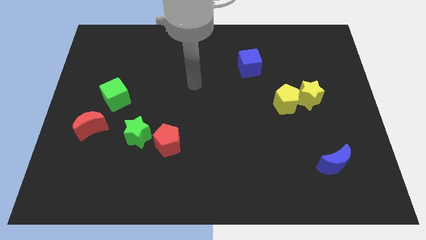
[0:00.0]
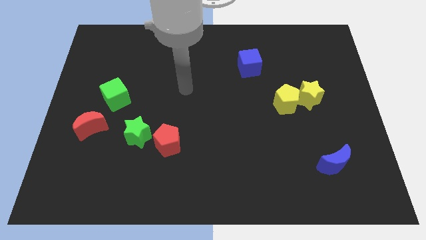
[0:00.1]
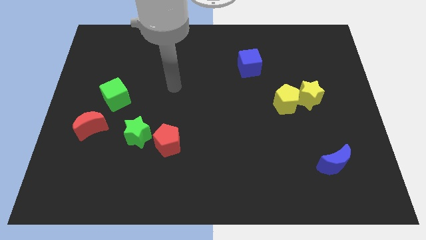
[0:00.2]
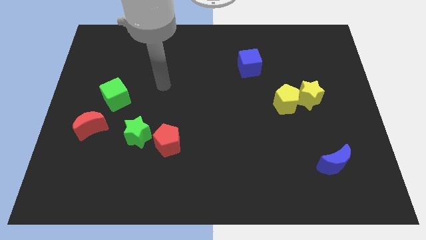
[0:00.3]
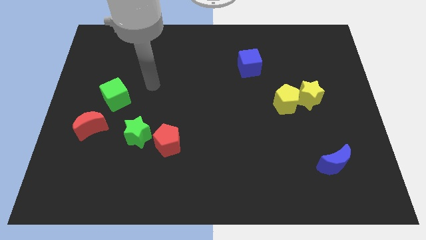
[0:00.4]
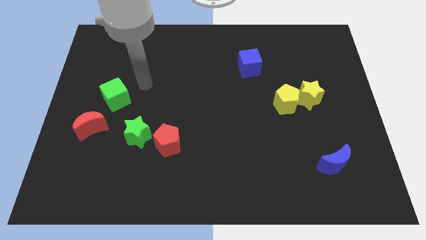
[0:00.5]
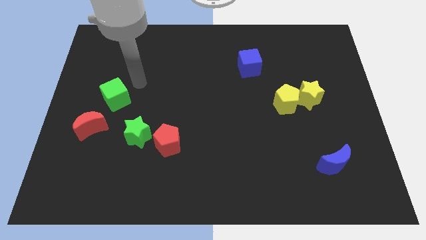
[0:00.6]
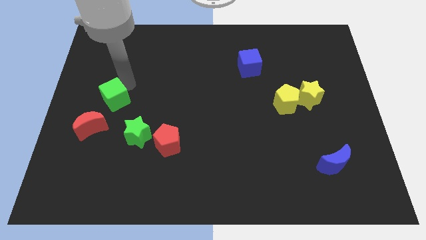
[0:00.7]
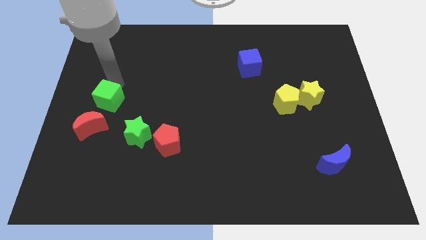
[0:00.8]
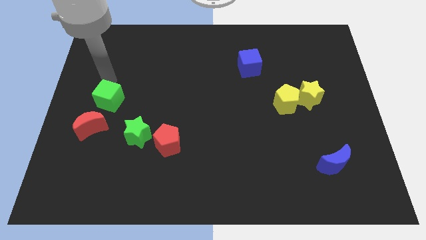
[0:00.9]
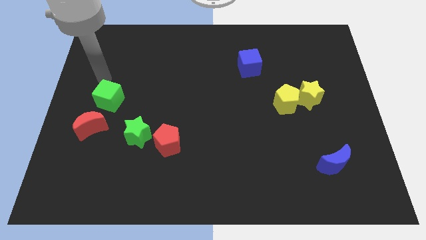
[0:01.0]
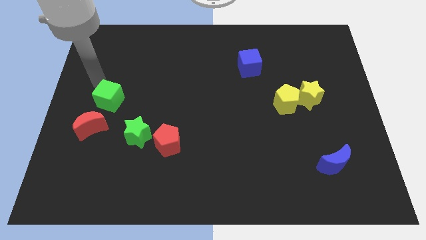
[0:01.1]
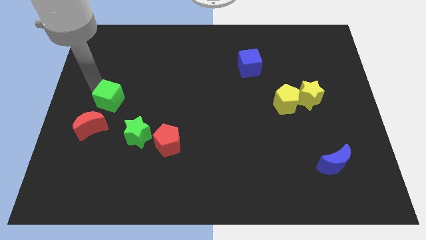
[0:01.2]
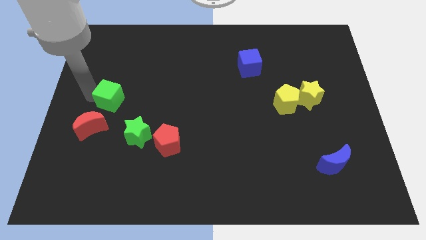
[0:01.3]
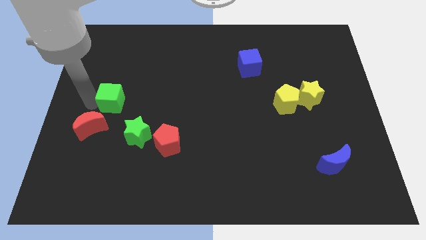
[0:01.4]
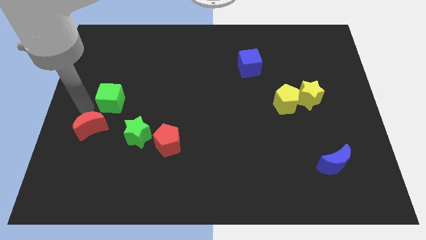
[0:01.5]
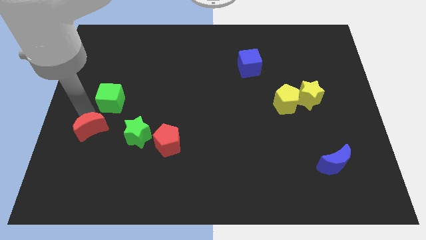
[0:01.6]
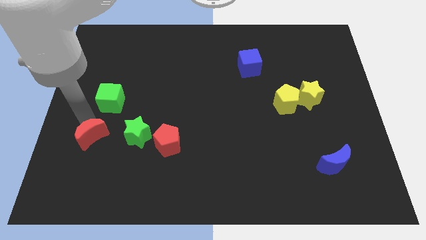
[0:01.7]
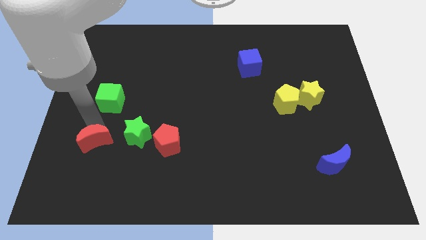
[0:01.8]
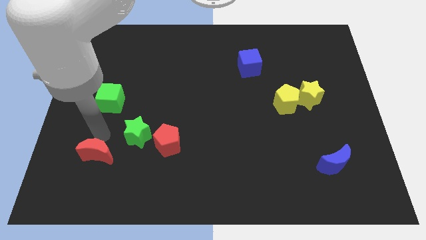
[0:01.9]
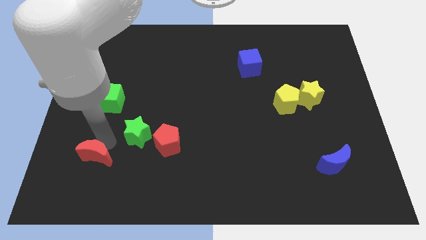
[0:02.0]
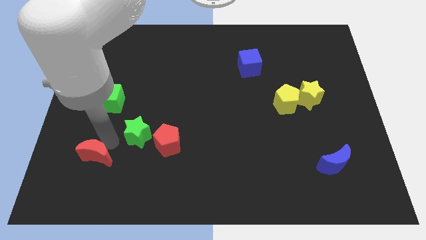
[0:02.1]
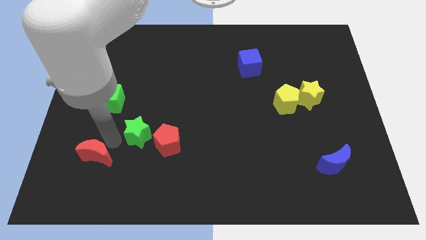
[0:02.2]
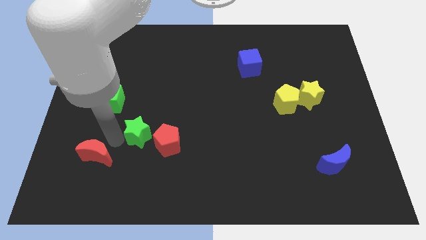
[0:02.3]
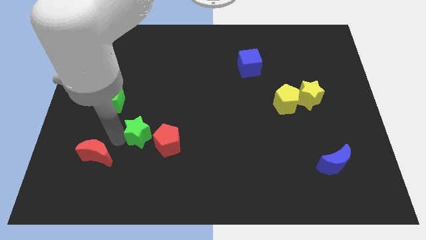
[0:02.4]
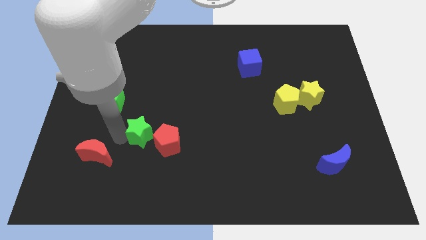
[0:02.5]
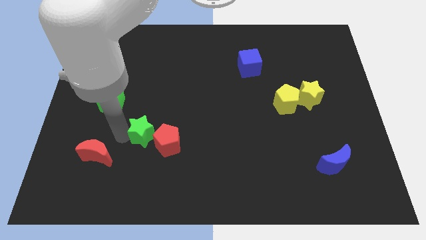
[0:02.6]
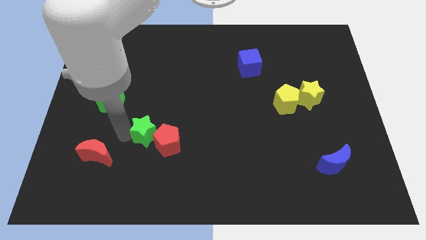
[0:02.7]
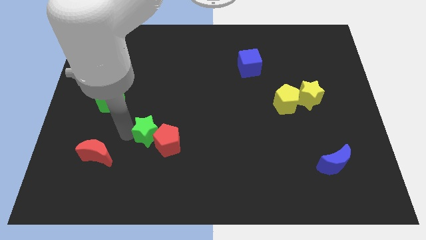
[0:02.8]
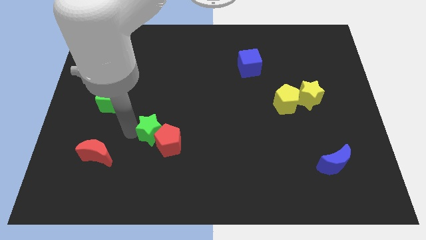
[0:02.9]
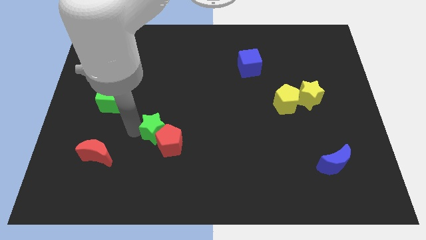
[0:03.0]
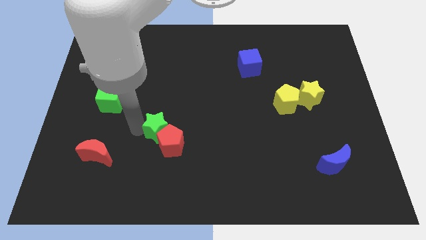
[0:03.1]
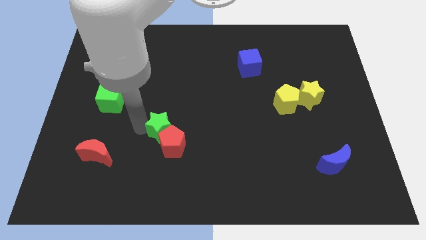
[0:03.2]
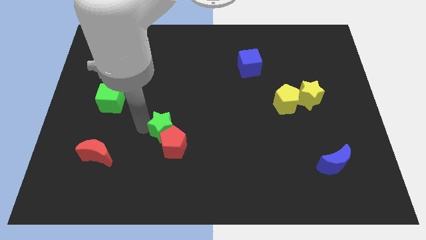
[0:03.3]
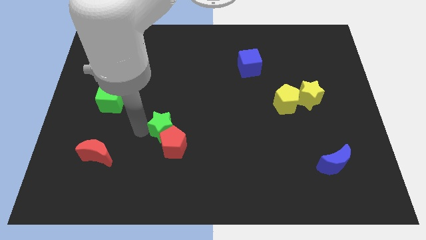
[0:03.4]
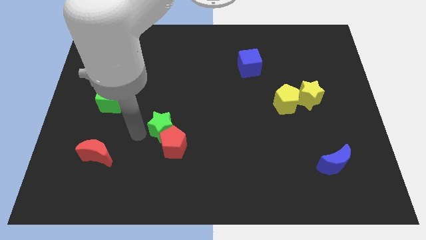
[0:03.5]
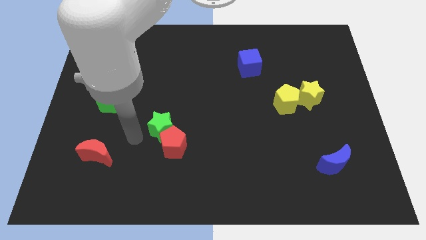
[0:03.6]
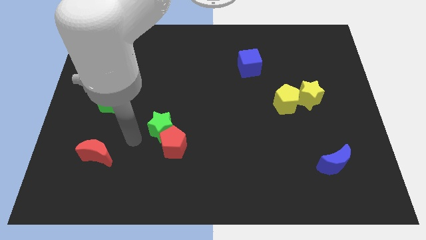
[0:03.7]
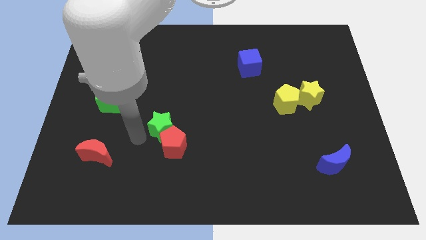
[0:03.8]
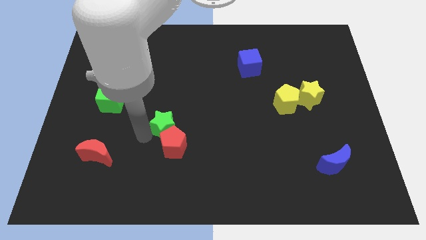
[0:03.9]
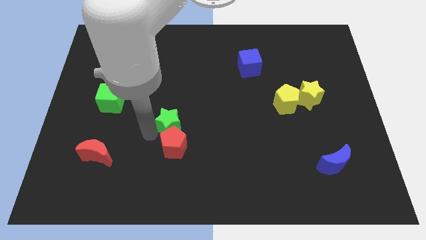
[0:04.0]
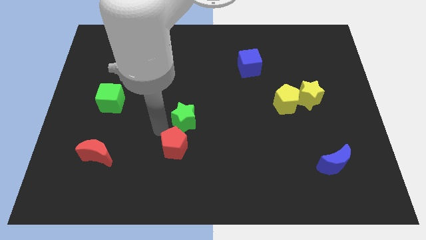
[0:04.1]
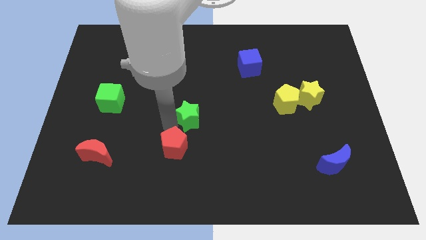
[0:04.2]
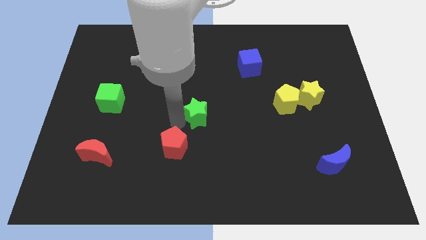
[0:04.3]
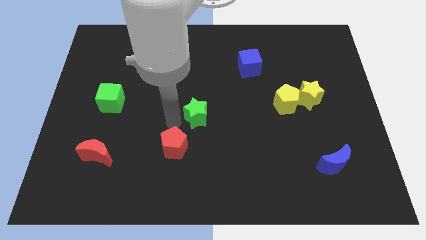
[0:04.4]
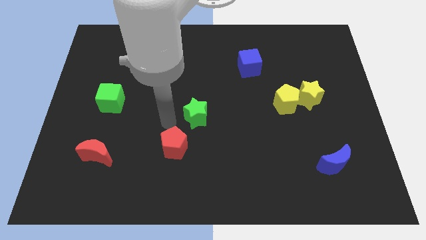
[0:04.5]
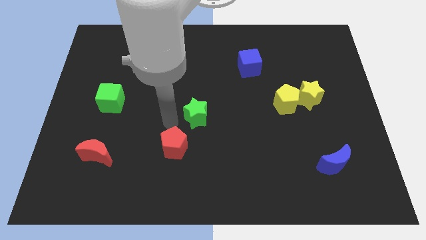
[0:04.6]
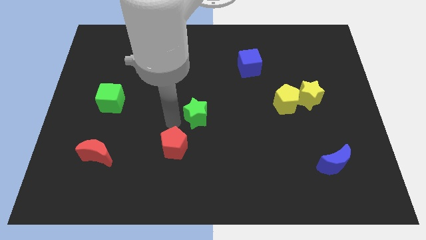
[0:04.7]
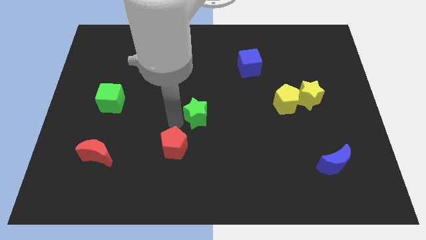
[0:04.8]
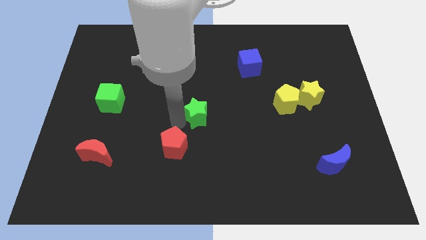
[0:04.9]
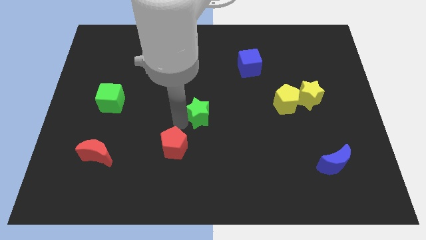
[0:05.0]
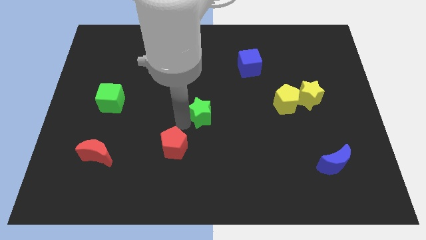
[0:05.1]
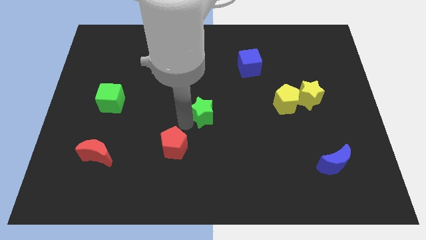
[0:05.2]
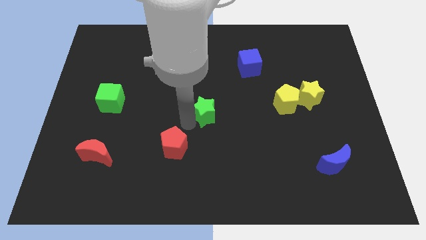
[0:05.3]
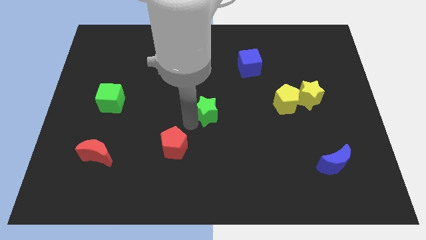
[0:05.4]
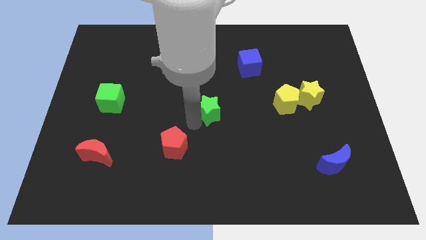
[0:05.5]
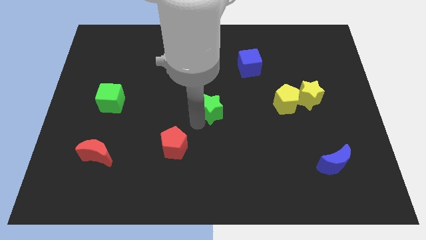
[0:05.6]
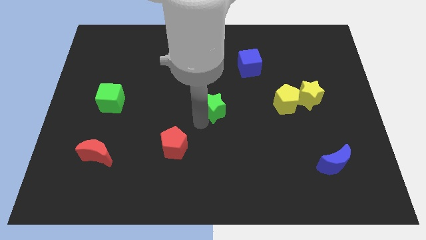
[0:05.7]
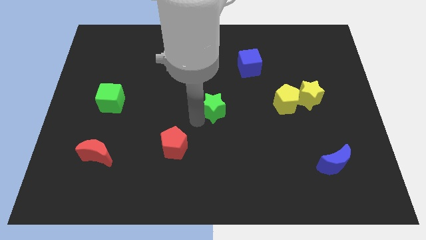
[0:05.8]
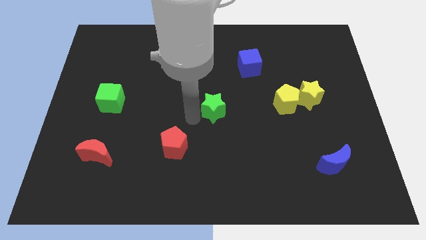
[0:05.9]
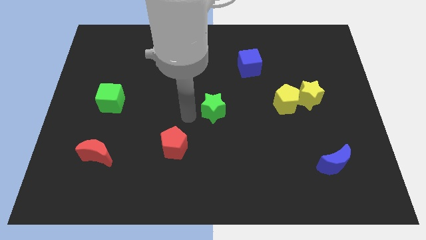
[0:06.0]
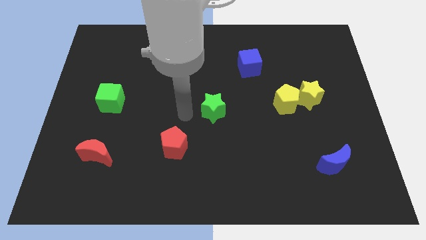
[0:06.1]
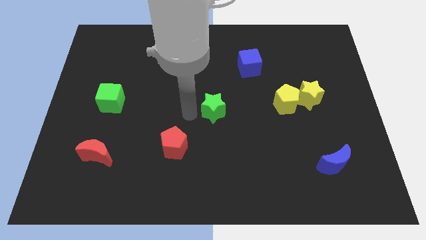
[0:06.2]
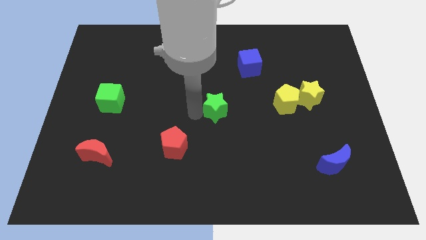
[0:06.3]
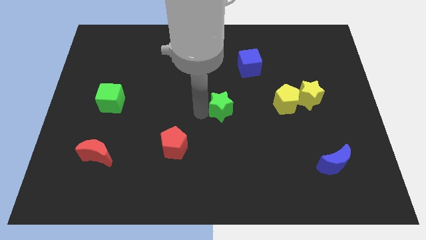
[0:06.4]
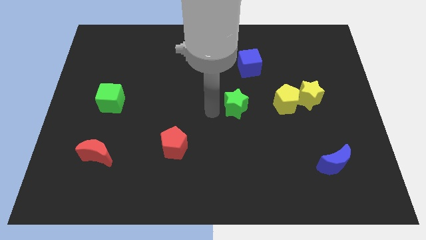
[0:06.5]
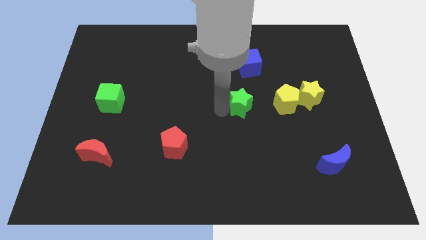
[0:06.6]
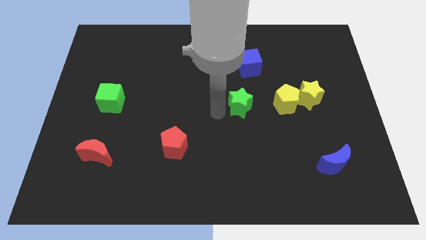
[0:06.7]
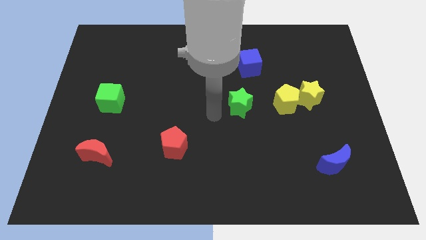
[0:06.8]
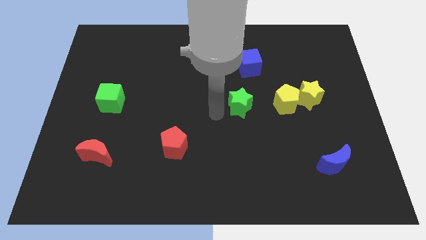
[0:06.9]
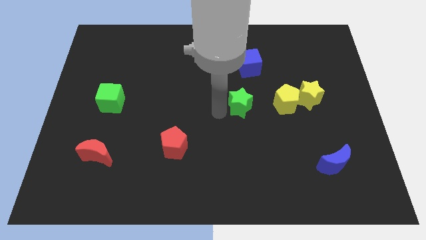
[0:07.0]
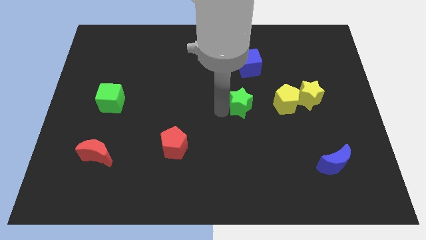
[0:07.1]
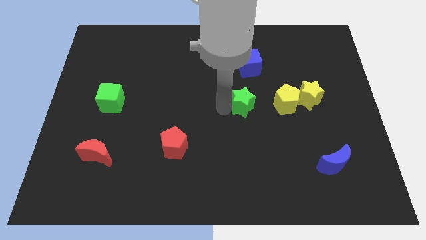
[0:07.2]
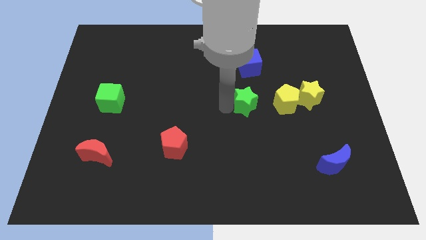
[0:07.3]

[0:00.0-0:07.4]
slide the green star to the left of the yellow star
